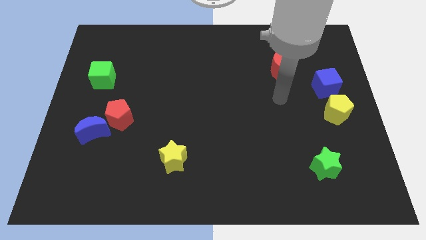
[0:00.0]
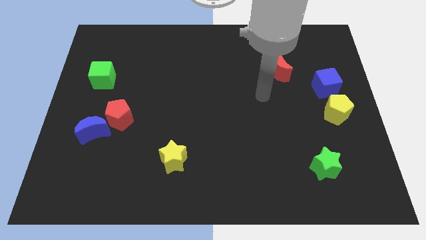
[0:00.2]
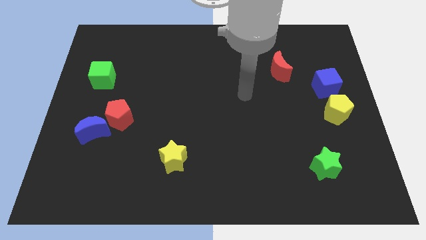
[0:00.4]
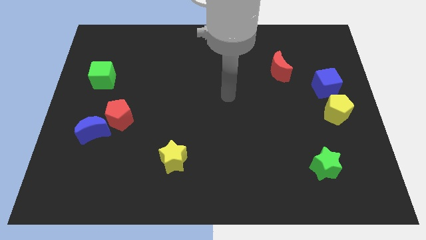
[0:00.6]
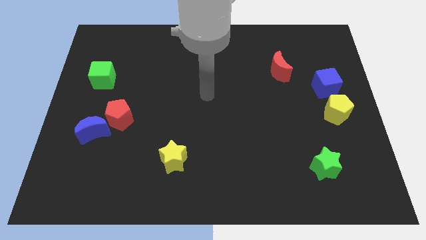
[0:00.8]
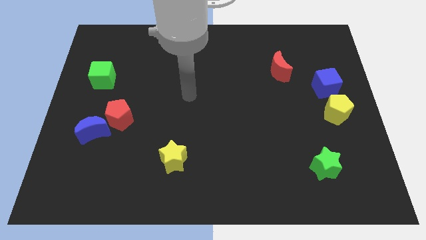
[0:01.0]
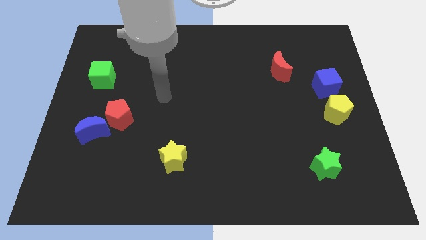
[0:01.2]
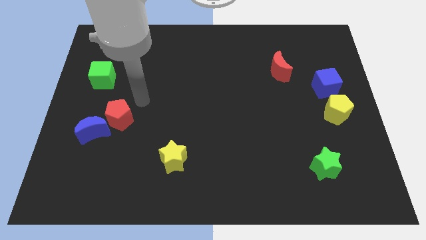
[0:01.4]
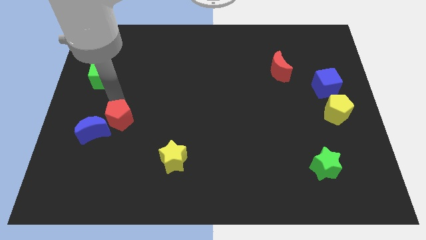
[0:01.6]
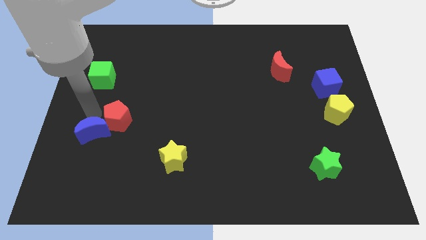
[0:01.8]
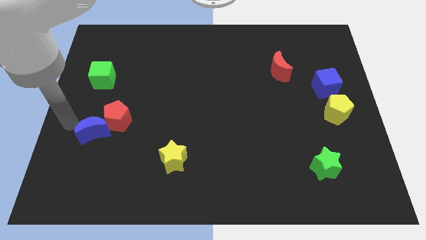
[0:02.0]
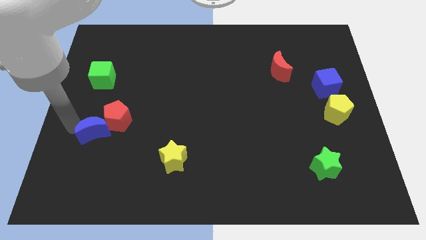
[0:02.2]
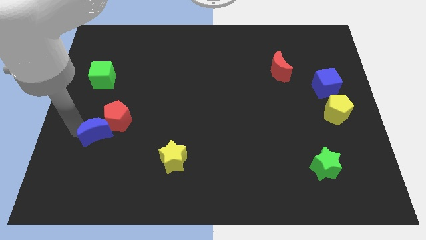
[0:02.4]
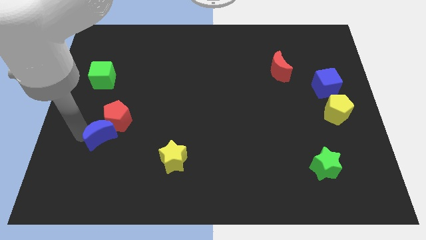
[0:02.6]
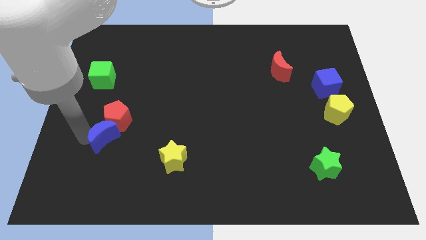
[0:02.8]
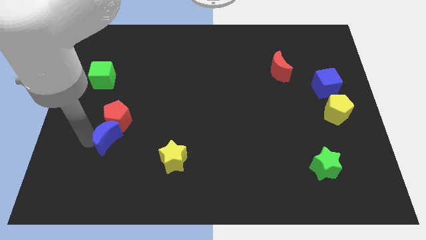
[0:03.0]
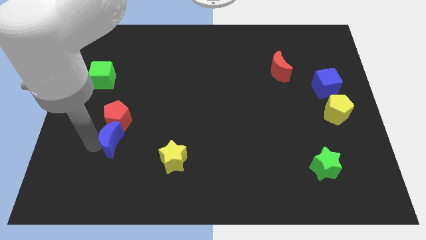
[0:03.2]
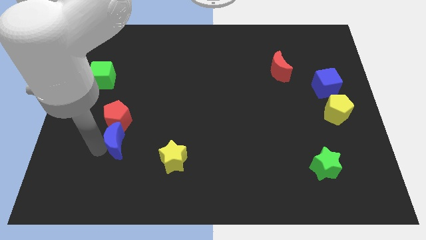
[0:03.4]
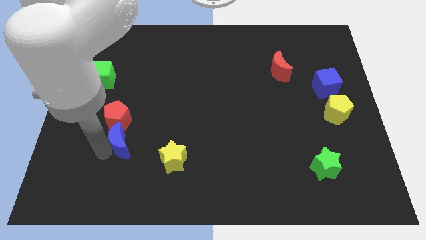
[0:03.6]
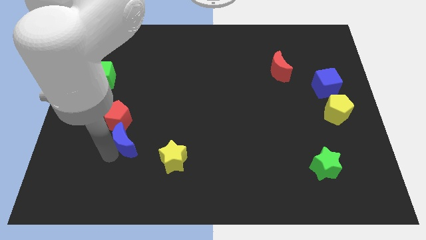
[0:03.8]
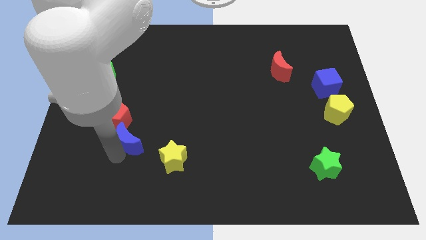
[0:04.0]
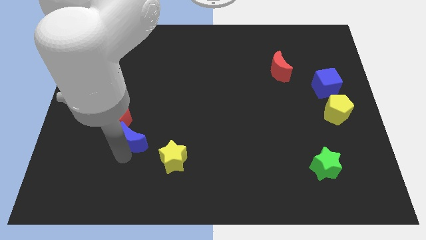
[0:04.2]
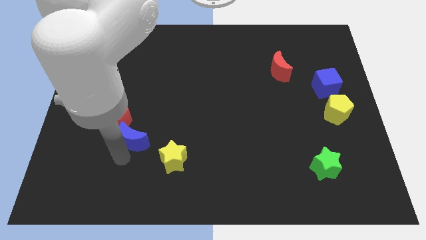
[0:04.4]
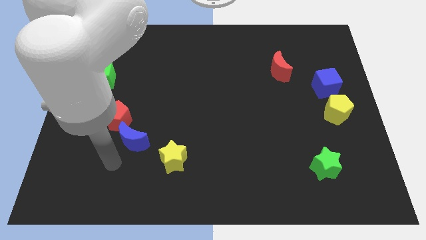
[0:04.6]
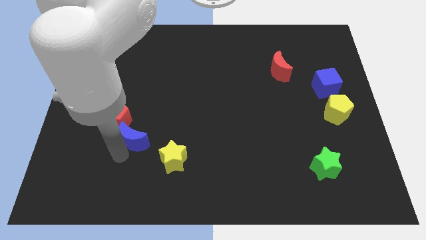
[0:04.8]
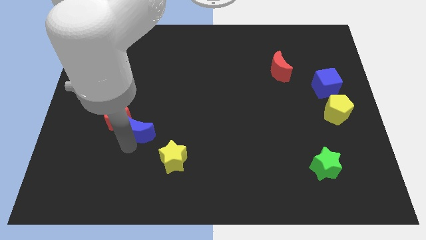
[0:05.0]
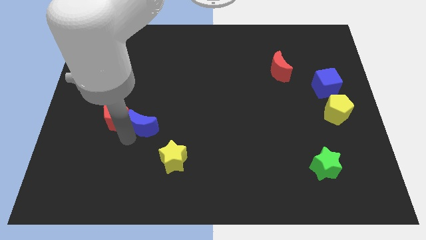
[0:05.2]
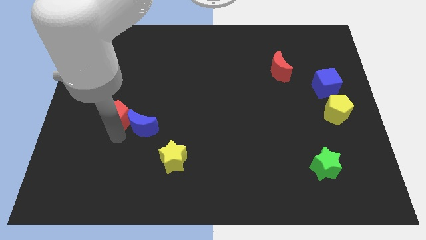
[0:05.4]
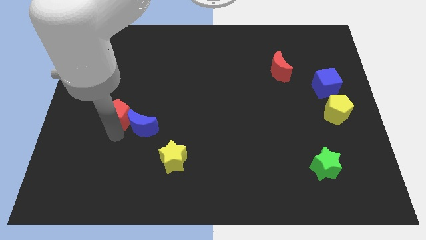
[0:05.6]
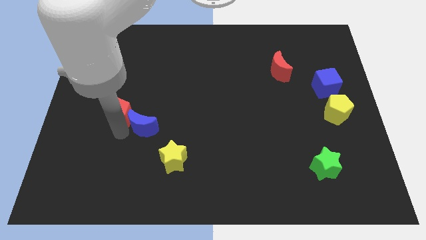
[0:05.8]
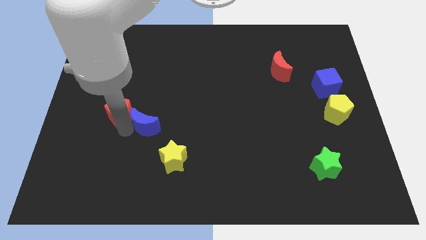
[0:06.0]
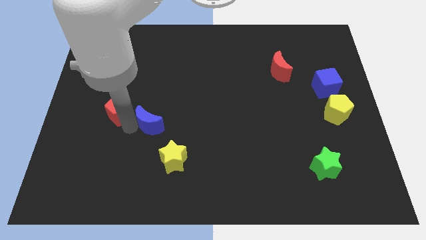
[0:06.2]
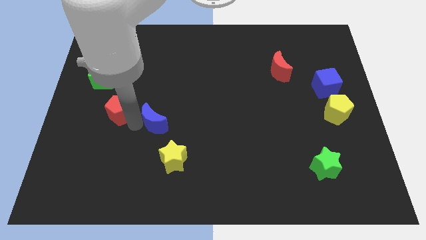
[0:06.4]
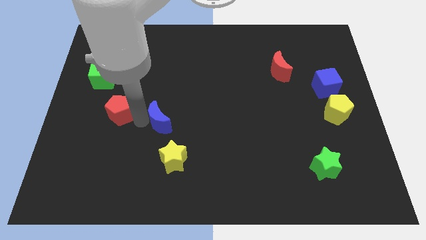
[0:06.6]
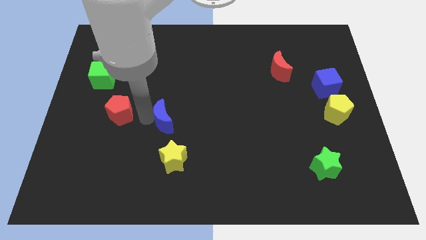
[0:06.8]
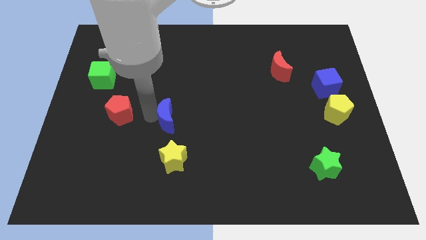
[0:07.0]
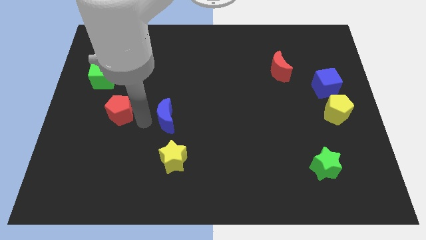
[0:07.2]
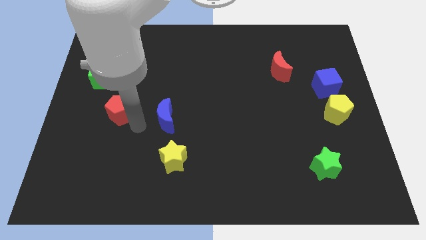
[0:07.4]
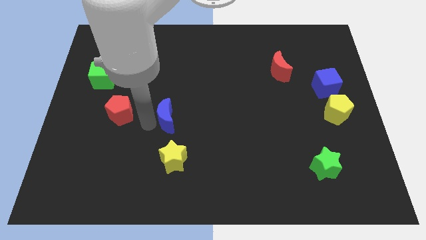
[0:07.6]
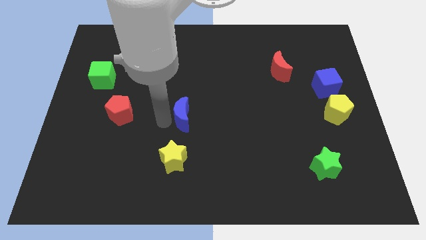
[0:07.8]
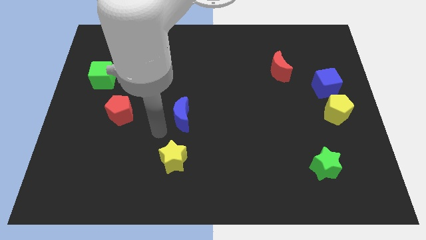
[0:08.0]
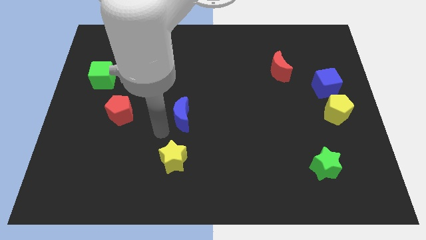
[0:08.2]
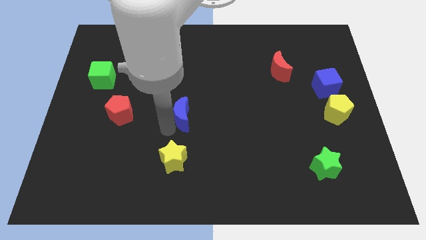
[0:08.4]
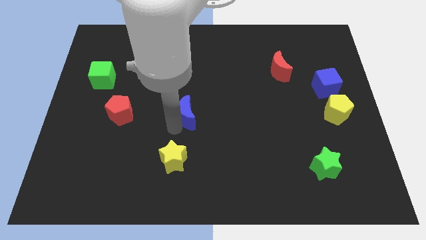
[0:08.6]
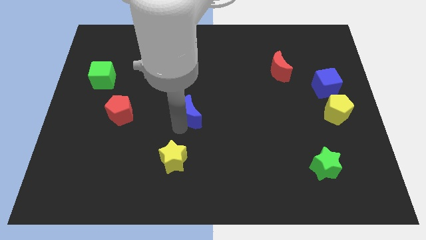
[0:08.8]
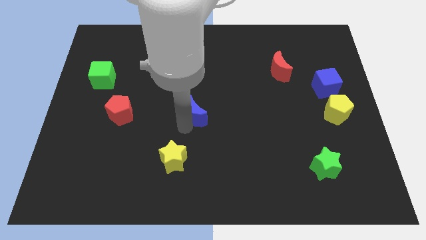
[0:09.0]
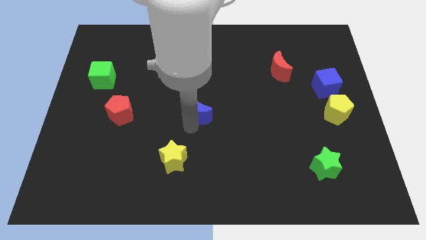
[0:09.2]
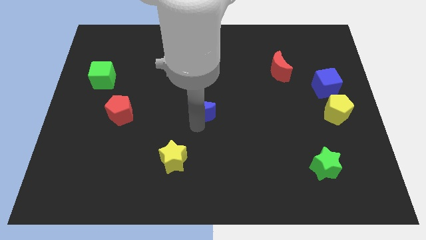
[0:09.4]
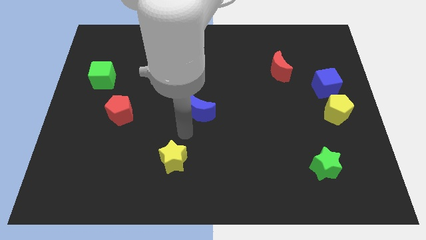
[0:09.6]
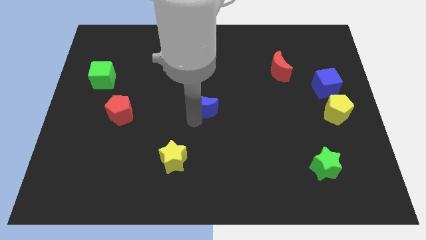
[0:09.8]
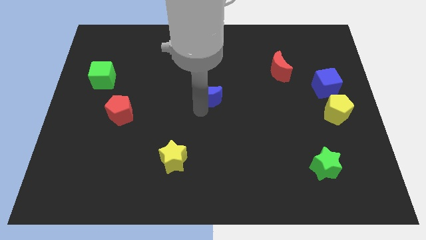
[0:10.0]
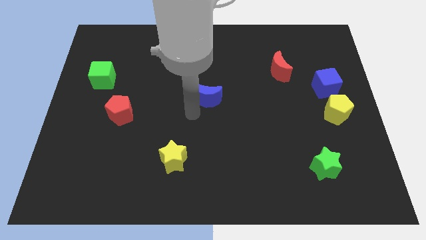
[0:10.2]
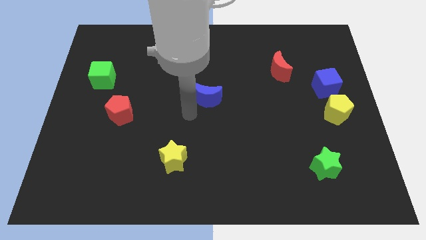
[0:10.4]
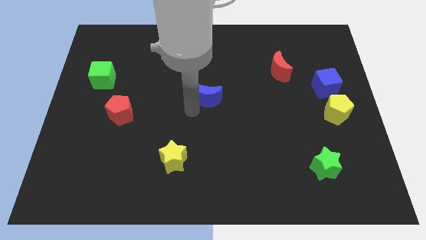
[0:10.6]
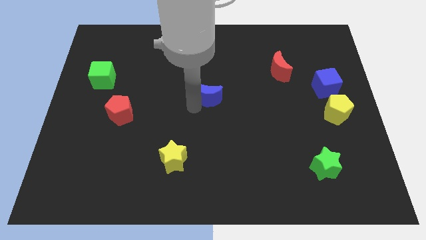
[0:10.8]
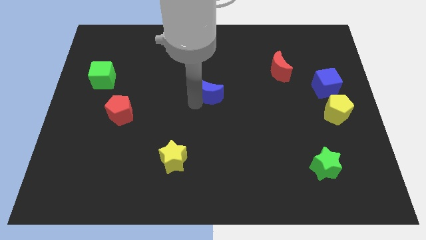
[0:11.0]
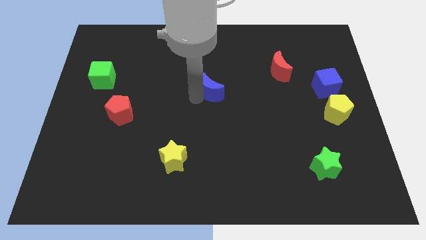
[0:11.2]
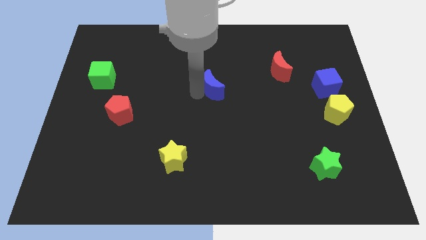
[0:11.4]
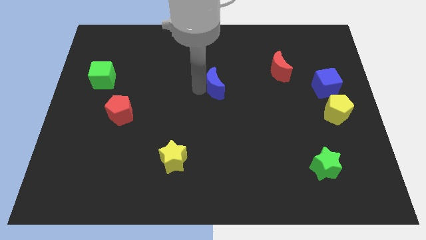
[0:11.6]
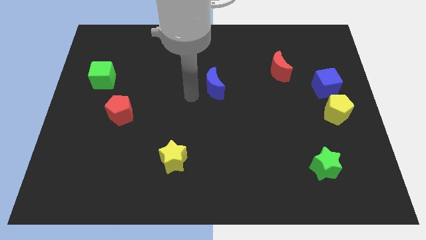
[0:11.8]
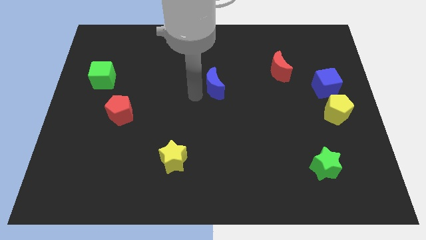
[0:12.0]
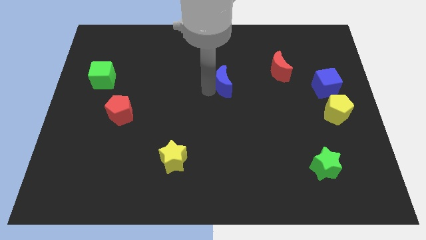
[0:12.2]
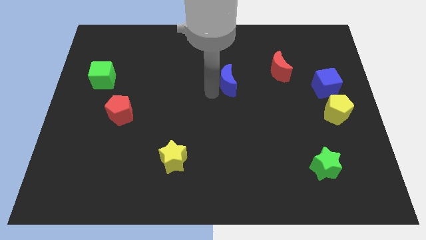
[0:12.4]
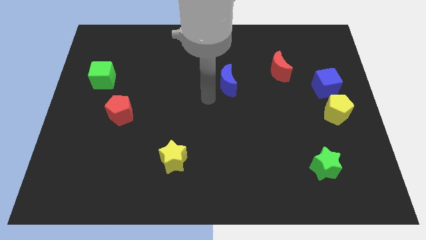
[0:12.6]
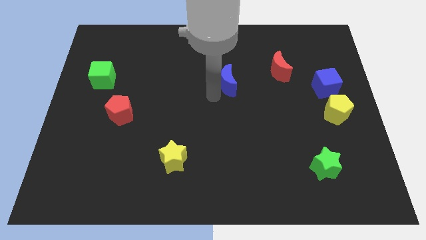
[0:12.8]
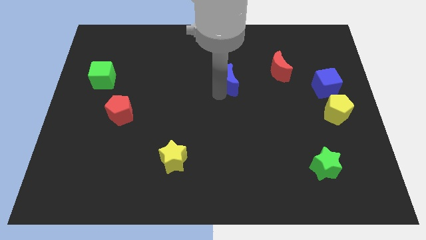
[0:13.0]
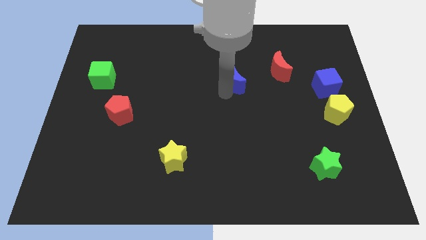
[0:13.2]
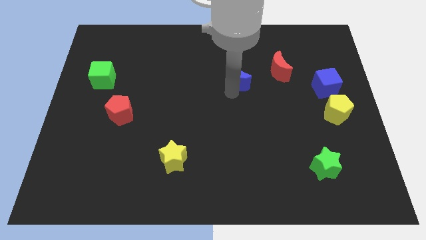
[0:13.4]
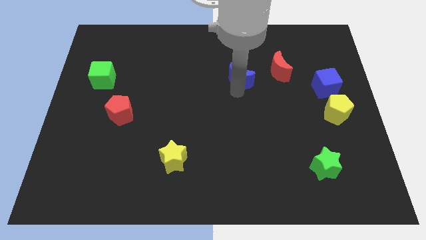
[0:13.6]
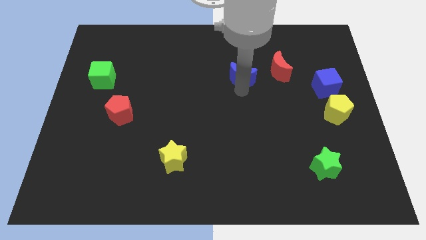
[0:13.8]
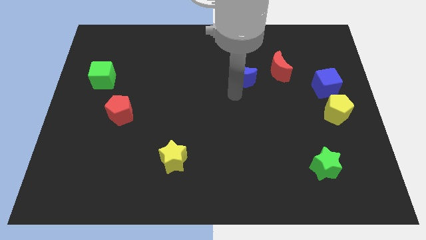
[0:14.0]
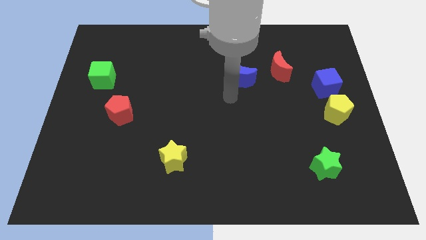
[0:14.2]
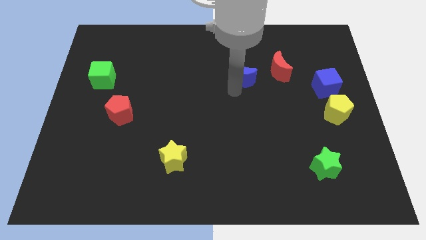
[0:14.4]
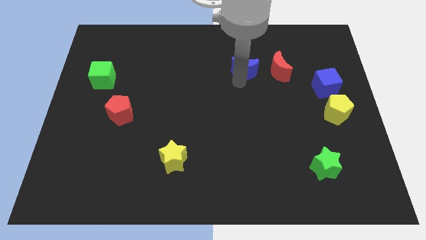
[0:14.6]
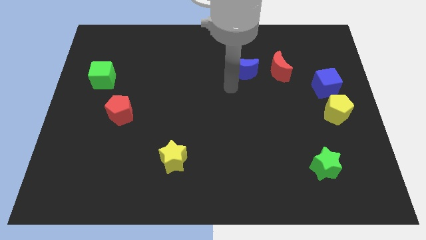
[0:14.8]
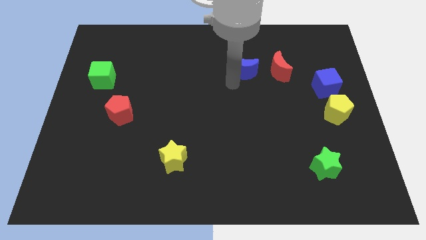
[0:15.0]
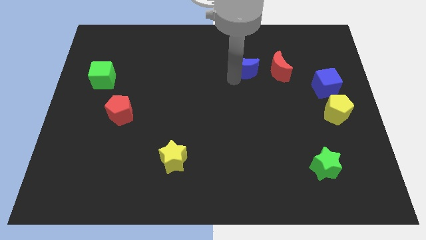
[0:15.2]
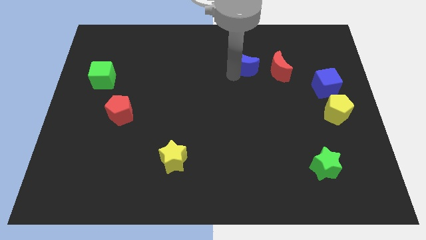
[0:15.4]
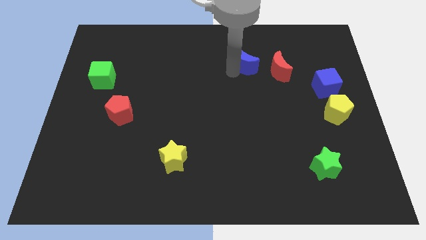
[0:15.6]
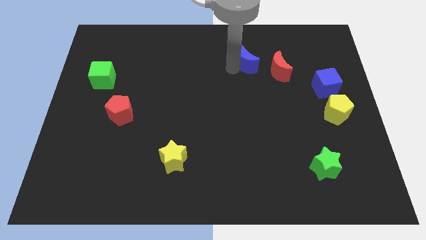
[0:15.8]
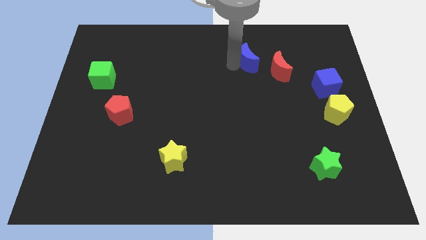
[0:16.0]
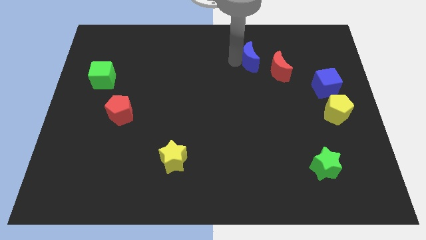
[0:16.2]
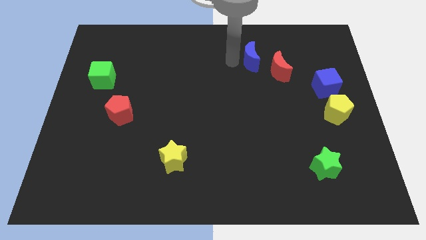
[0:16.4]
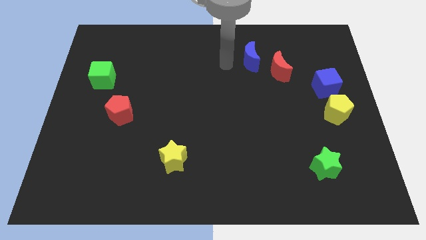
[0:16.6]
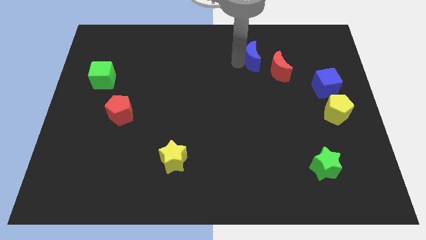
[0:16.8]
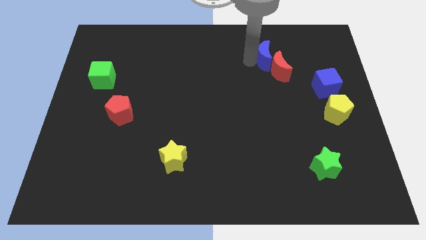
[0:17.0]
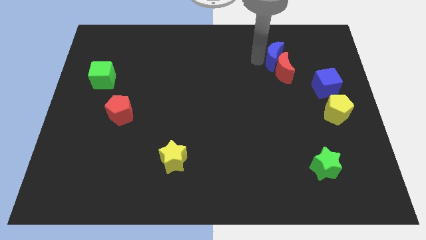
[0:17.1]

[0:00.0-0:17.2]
put the blue moon diagonally up and to the right of the red moon
